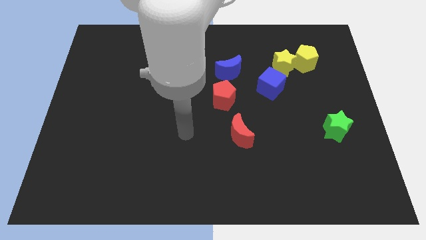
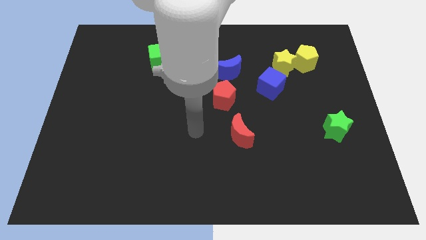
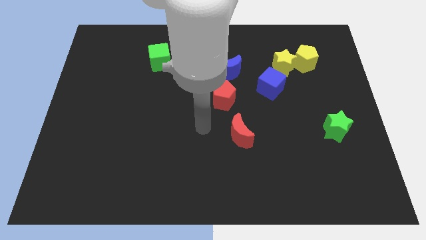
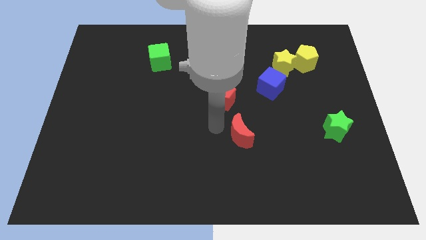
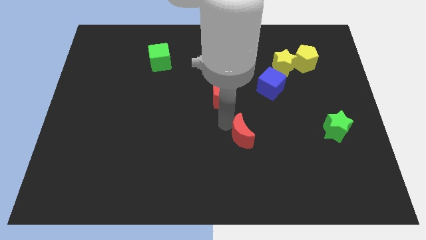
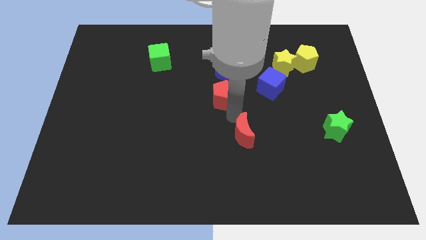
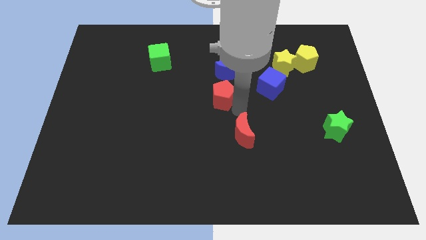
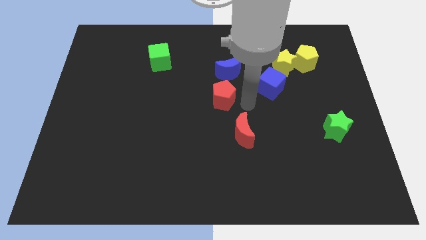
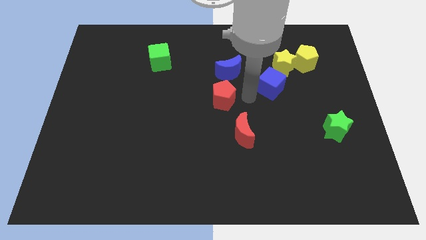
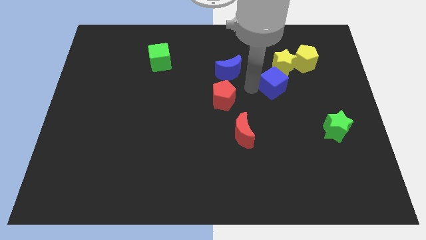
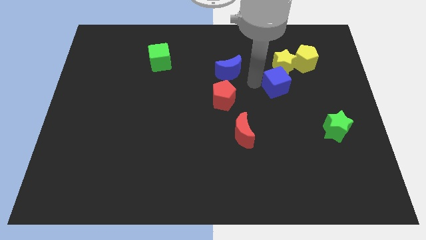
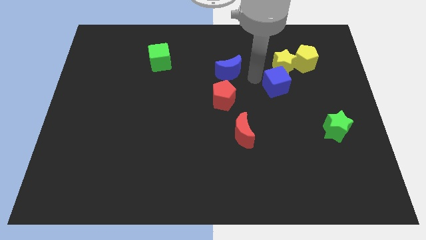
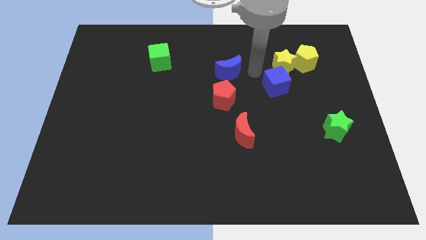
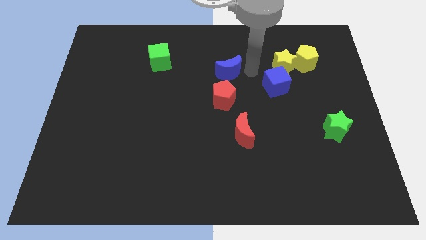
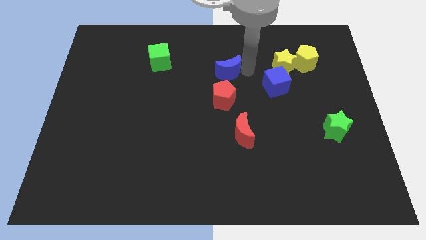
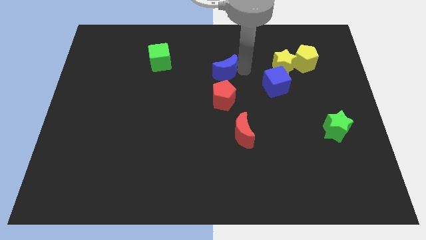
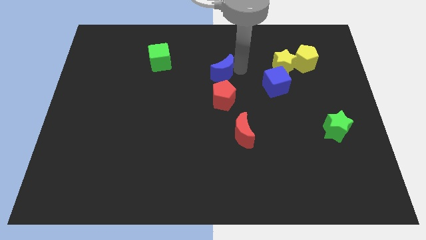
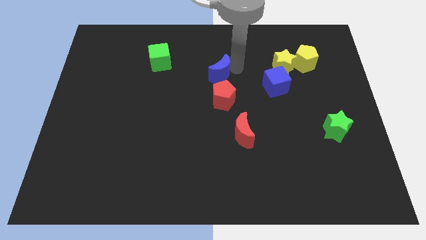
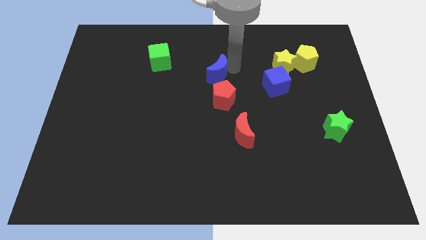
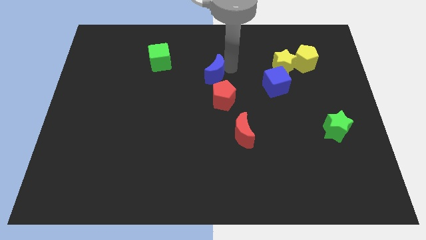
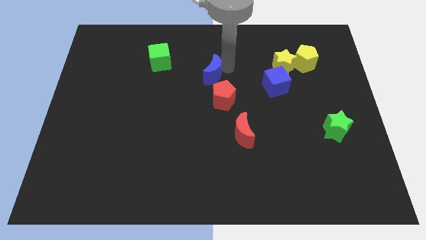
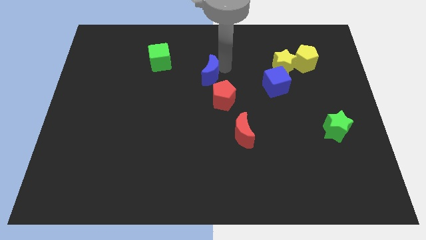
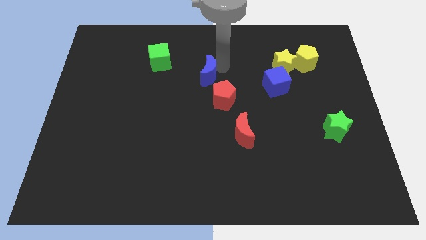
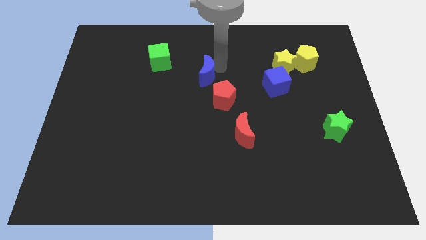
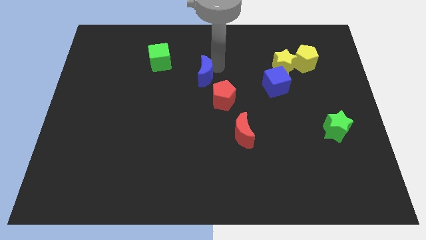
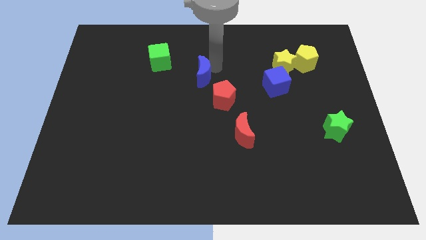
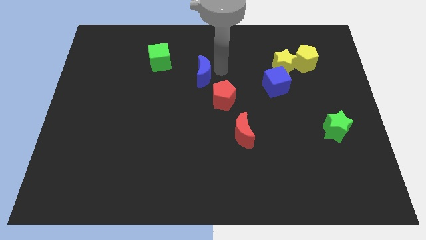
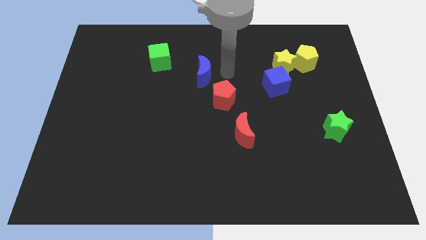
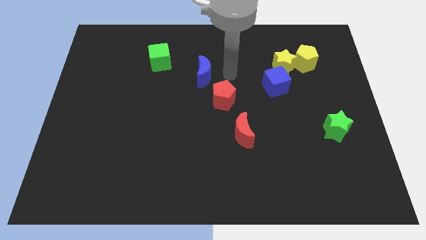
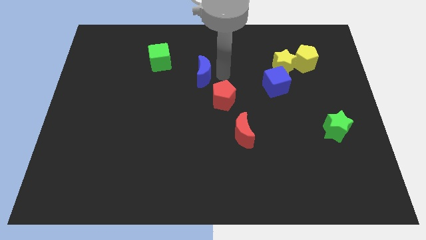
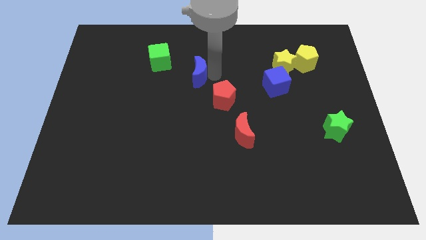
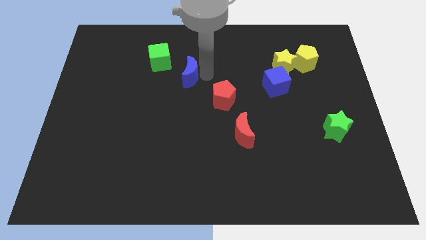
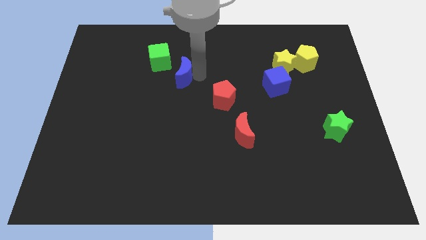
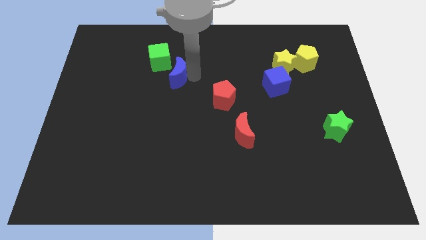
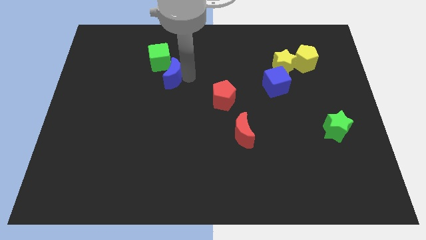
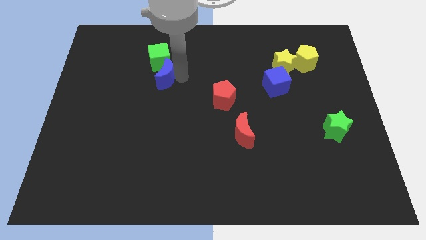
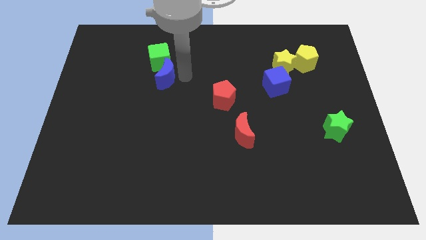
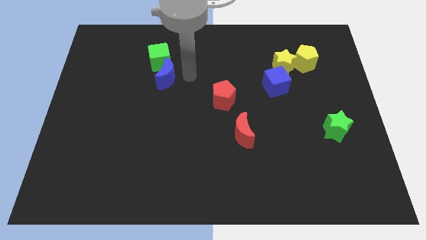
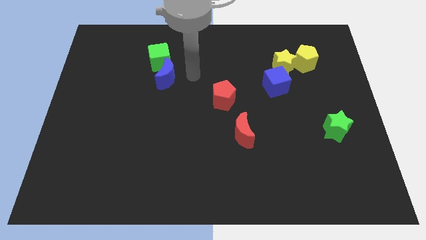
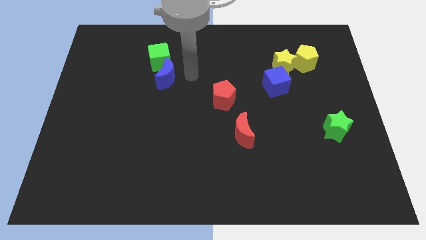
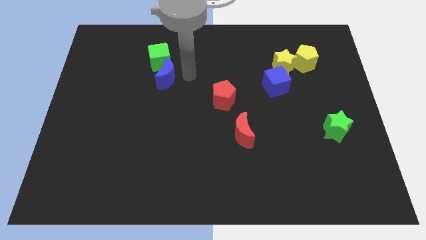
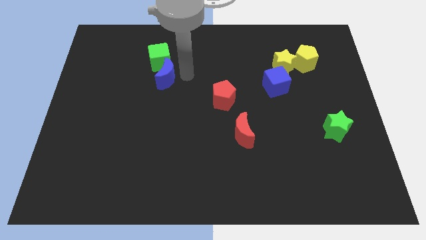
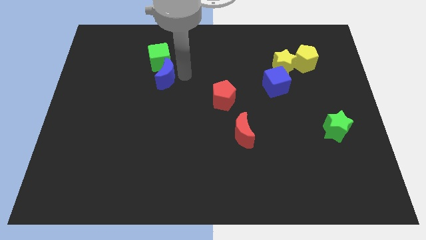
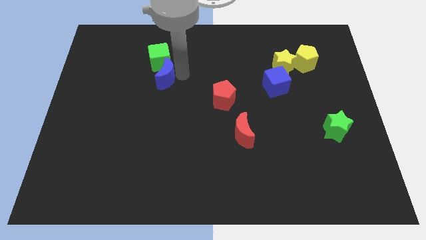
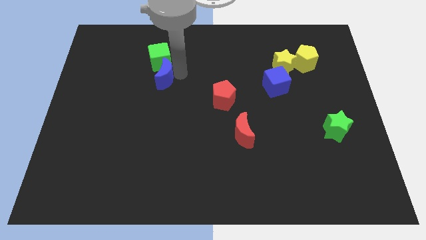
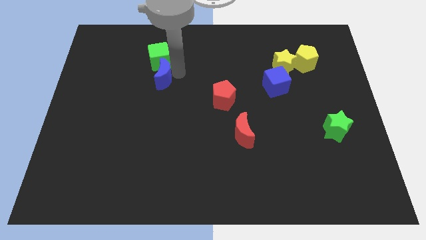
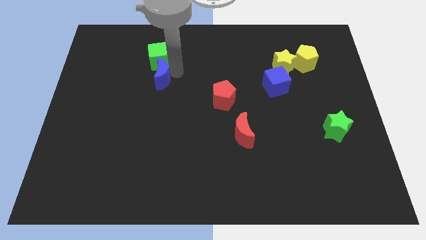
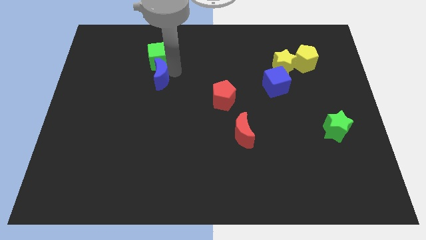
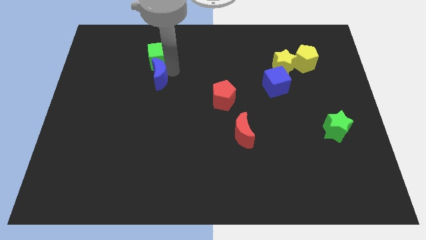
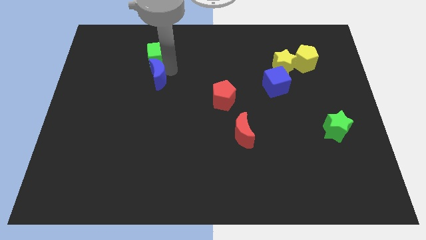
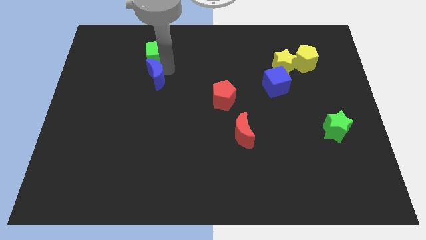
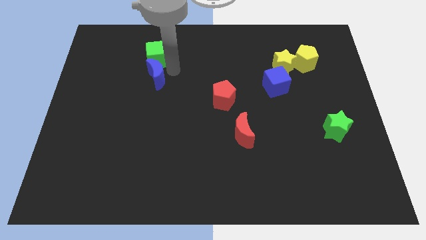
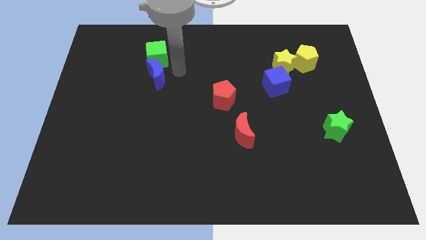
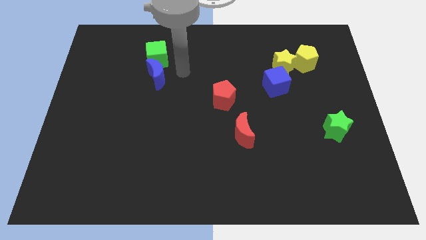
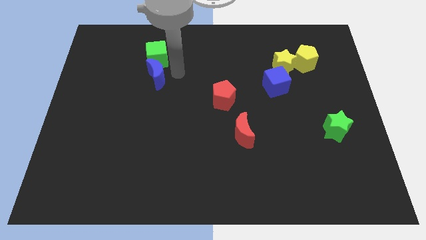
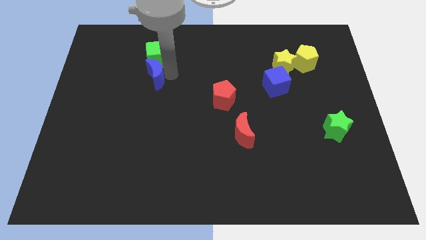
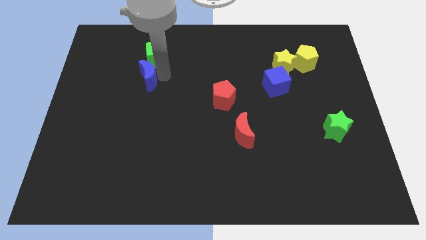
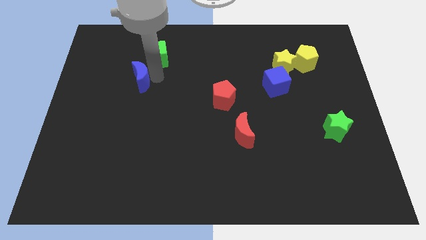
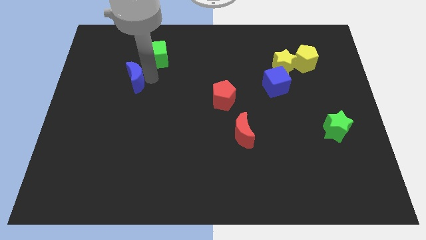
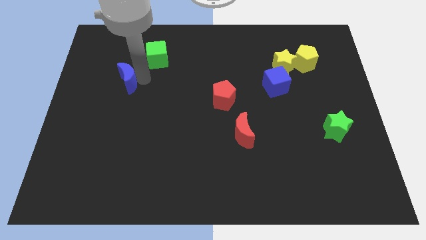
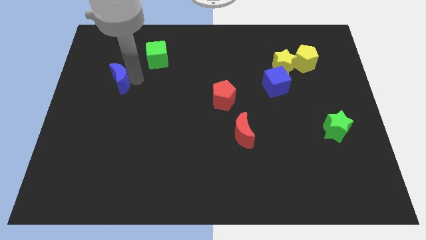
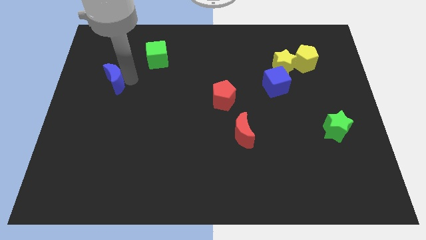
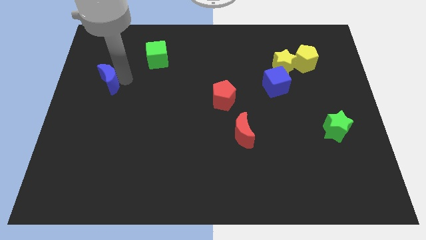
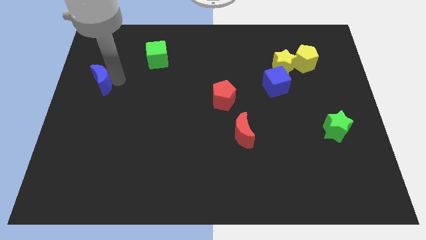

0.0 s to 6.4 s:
slide the blue moon to the center left
